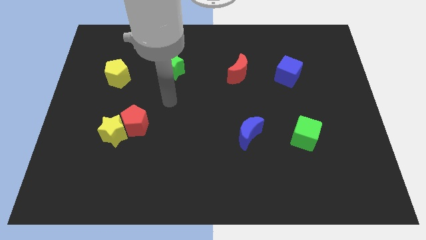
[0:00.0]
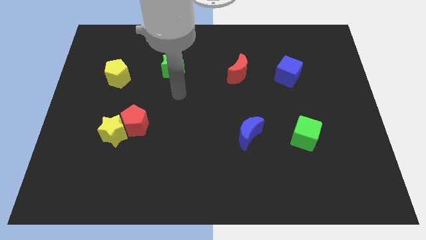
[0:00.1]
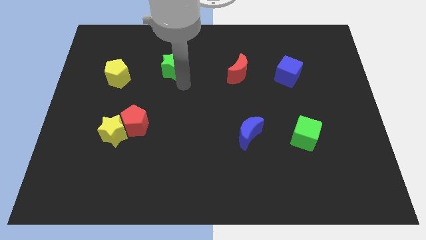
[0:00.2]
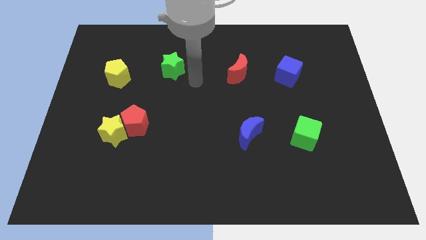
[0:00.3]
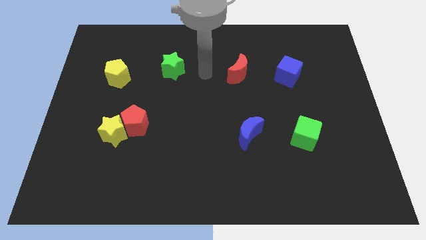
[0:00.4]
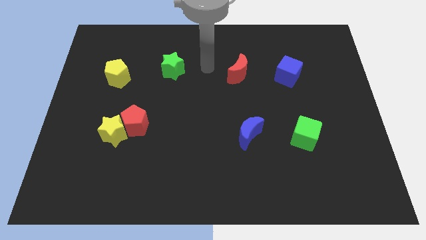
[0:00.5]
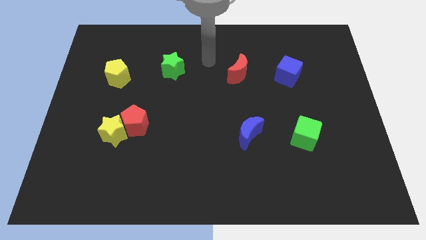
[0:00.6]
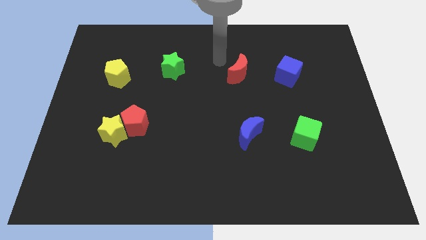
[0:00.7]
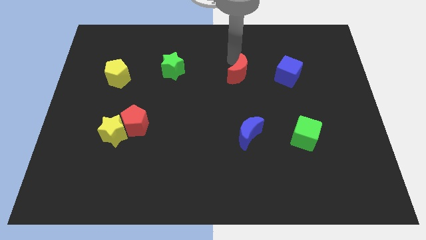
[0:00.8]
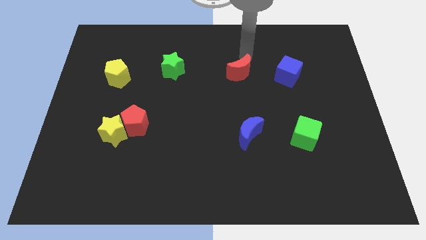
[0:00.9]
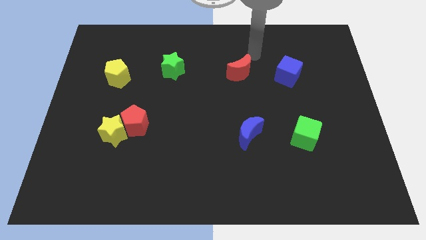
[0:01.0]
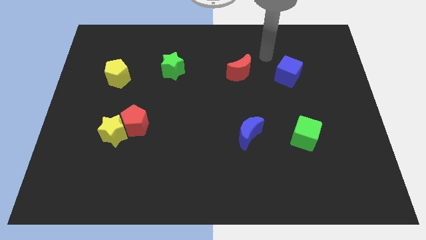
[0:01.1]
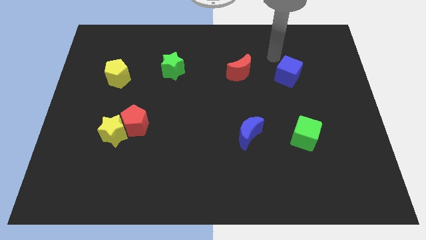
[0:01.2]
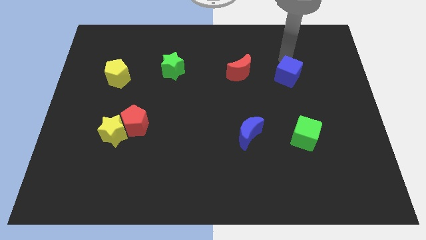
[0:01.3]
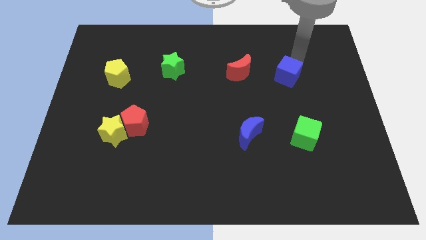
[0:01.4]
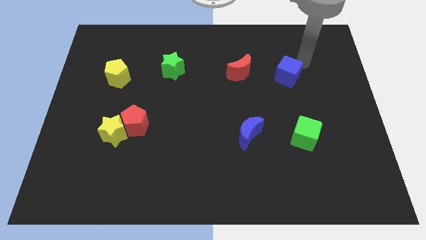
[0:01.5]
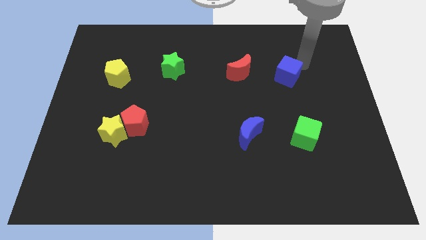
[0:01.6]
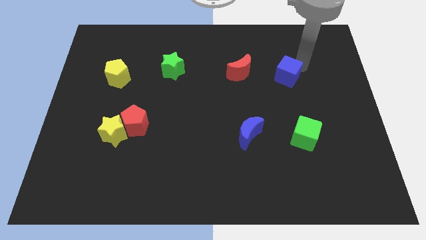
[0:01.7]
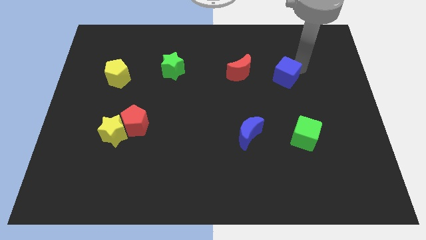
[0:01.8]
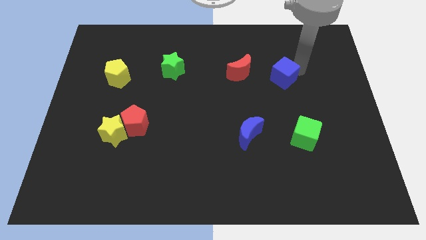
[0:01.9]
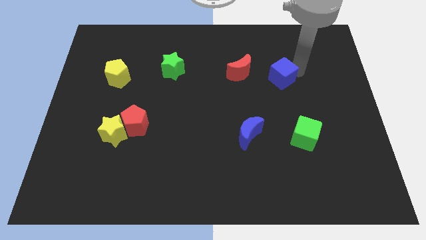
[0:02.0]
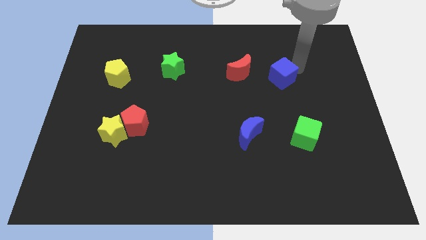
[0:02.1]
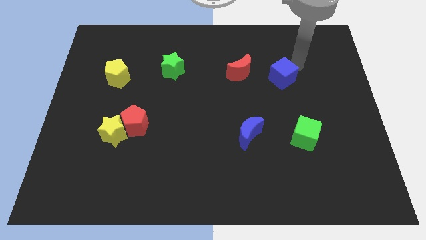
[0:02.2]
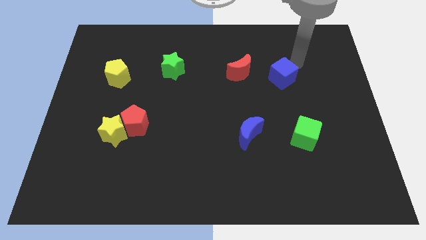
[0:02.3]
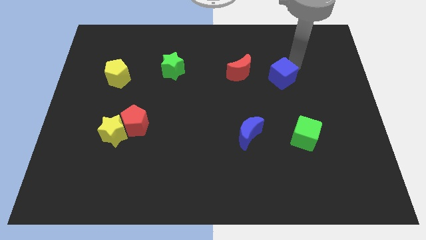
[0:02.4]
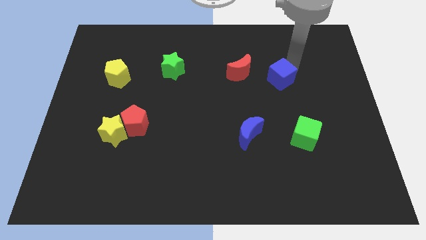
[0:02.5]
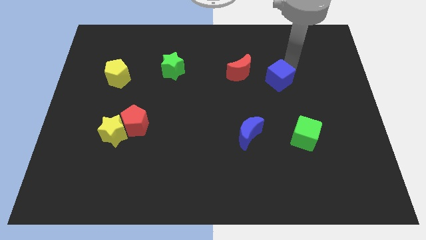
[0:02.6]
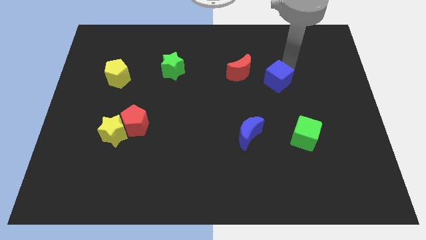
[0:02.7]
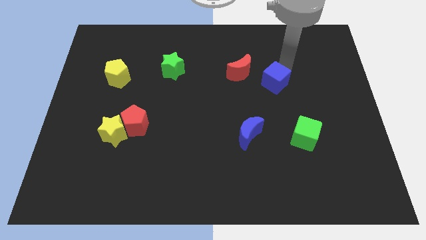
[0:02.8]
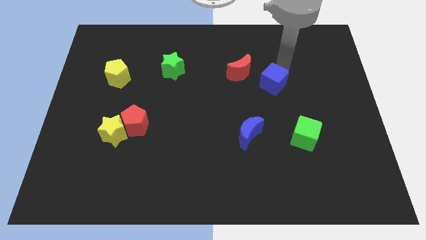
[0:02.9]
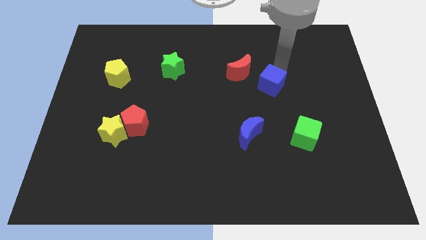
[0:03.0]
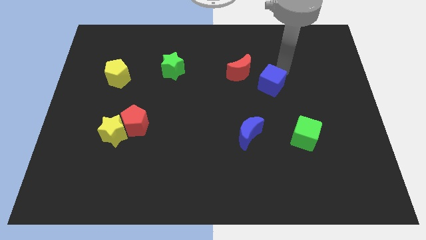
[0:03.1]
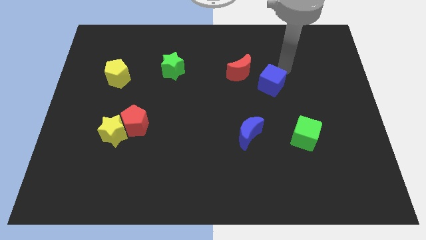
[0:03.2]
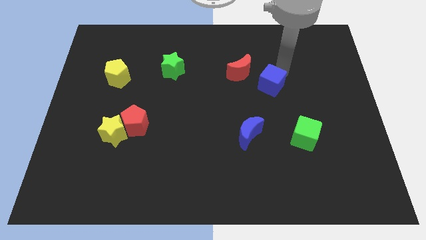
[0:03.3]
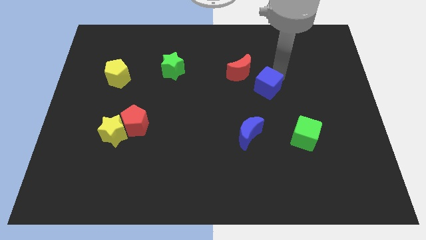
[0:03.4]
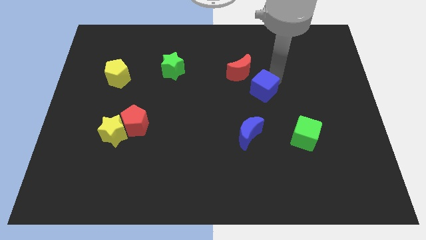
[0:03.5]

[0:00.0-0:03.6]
push the blue cube downwards and to the left diagonally a little bit

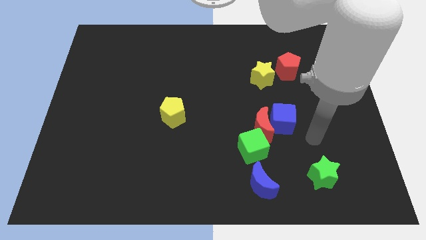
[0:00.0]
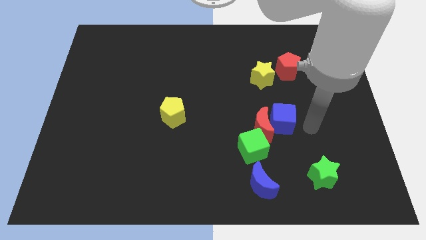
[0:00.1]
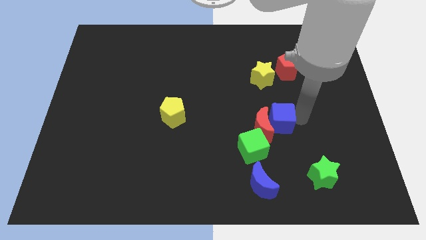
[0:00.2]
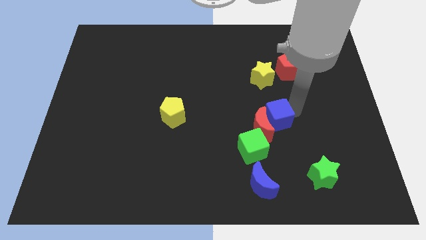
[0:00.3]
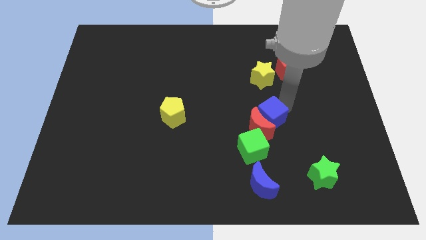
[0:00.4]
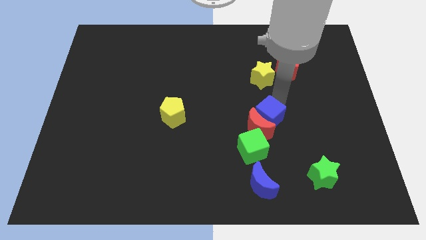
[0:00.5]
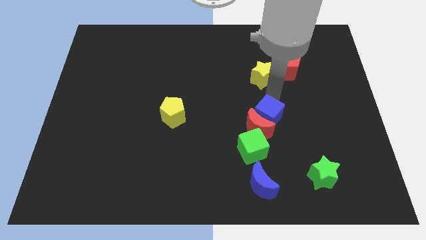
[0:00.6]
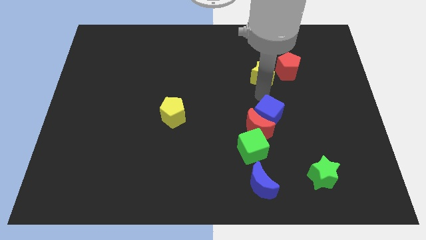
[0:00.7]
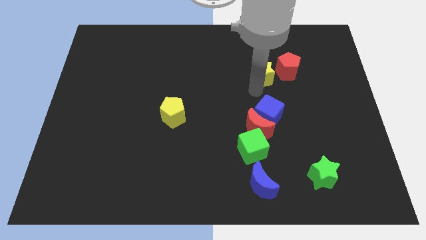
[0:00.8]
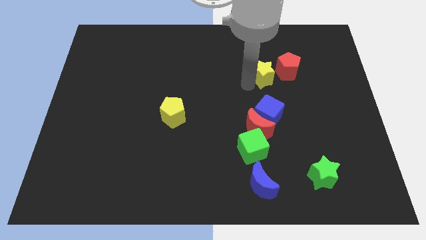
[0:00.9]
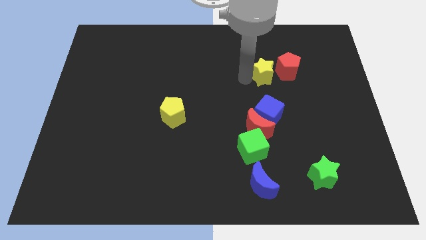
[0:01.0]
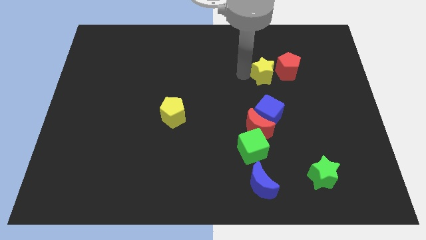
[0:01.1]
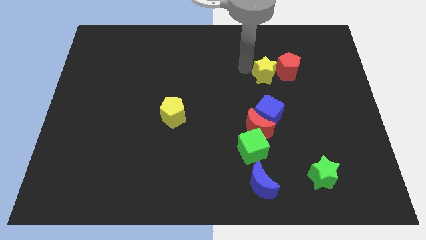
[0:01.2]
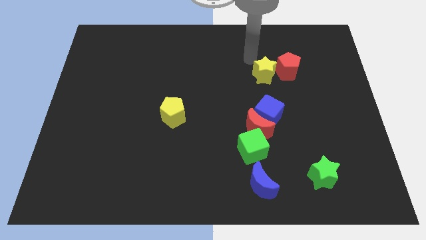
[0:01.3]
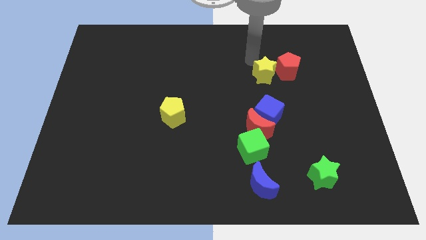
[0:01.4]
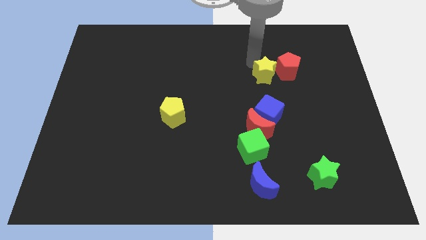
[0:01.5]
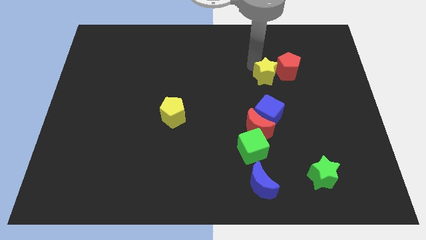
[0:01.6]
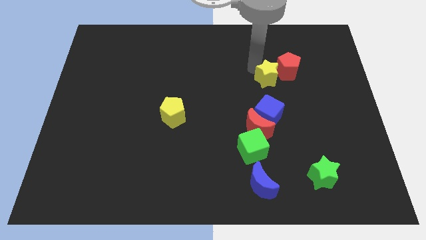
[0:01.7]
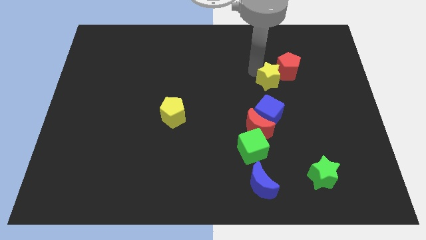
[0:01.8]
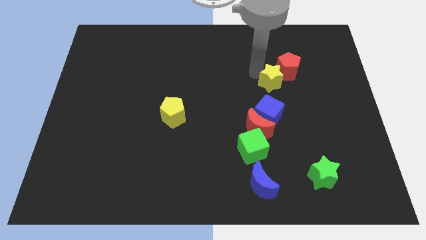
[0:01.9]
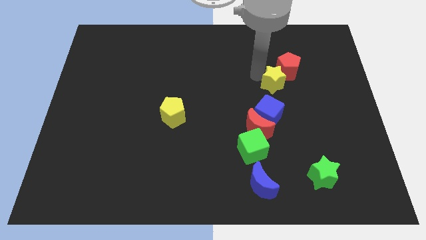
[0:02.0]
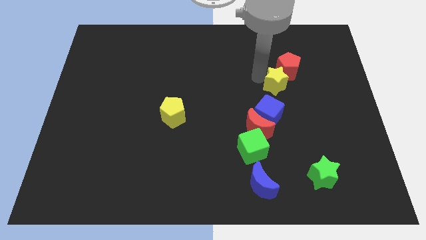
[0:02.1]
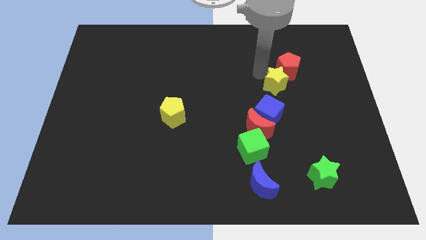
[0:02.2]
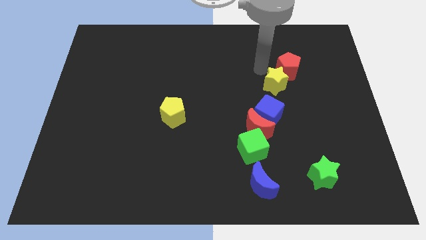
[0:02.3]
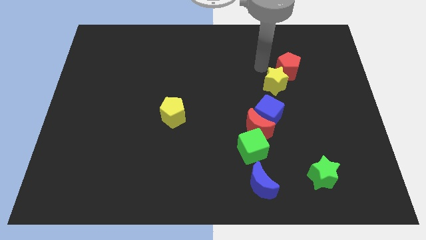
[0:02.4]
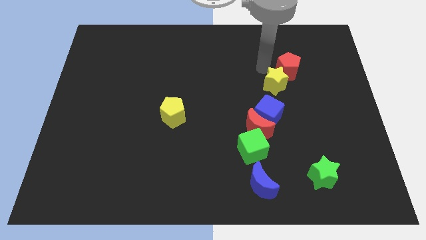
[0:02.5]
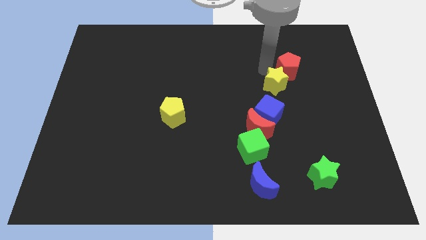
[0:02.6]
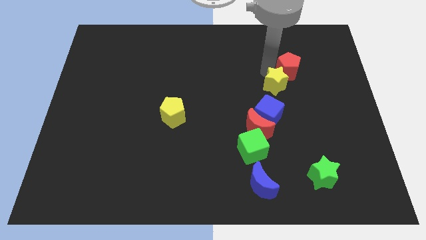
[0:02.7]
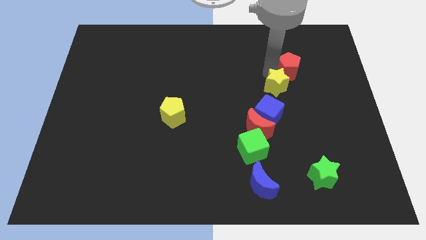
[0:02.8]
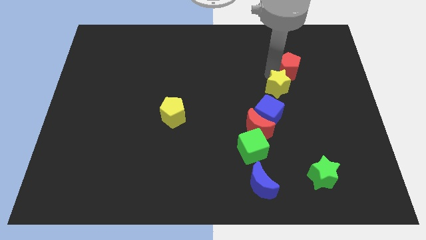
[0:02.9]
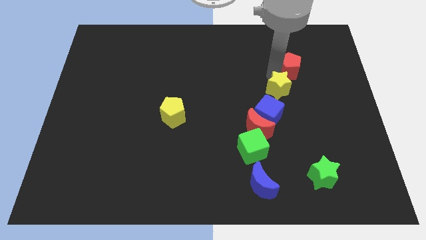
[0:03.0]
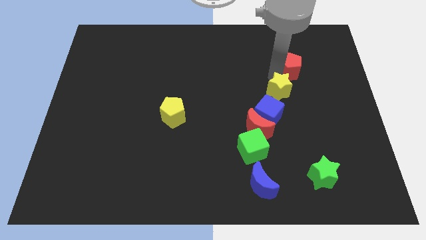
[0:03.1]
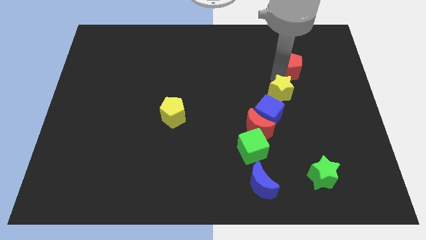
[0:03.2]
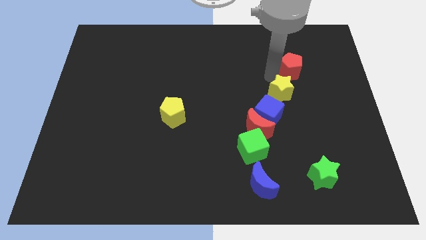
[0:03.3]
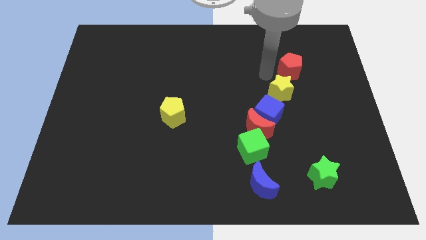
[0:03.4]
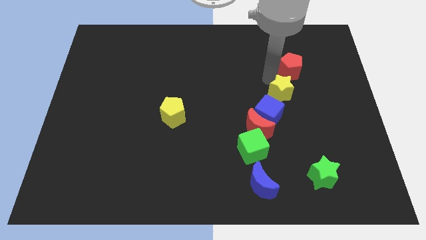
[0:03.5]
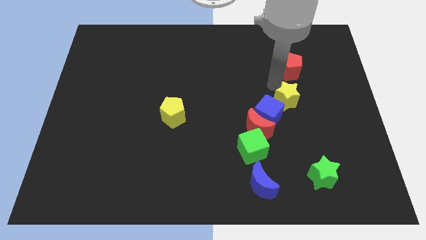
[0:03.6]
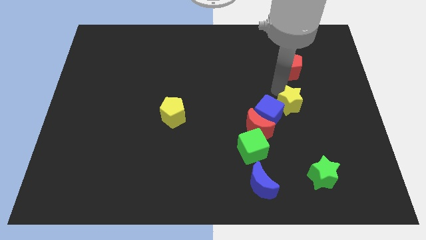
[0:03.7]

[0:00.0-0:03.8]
slide the yellow star a little downwards

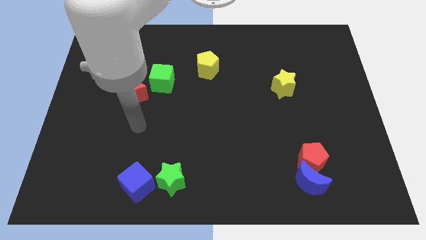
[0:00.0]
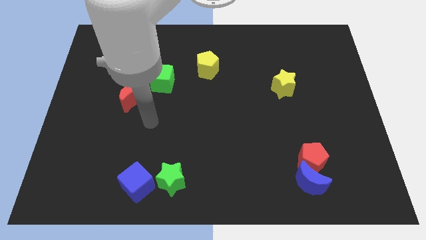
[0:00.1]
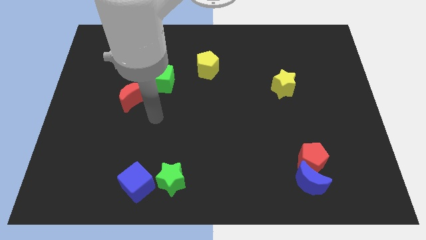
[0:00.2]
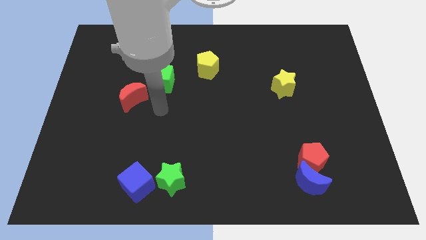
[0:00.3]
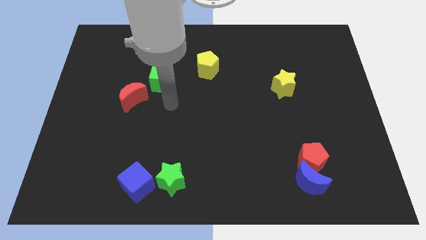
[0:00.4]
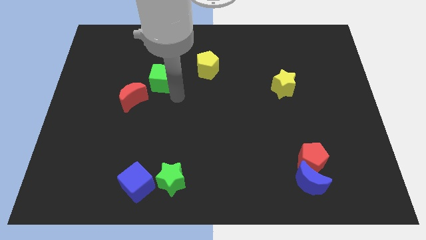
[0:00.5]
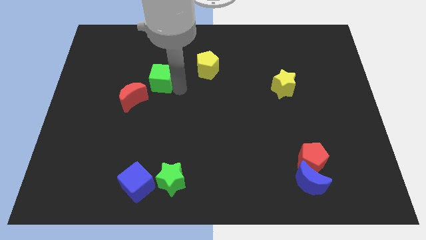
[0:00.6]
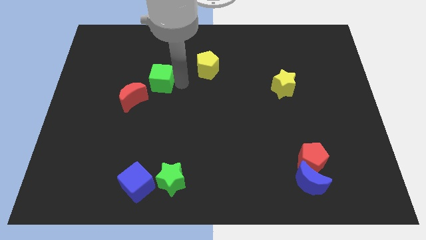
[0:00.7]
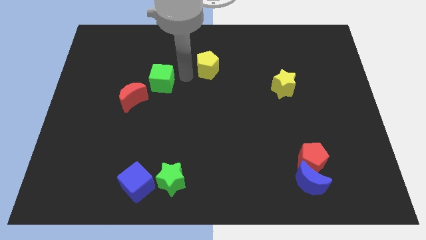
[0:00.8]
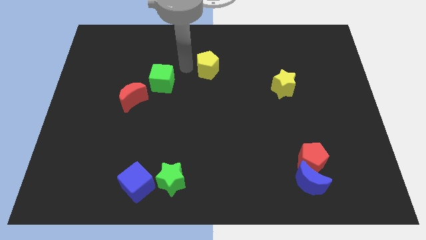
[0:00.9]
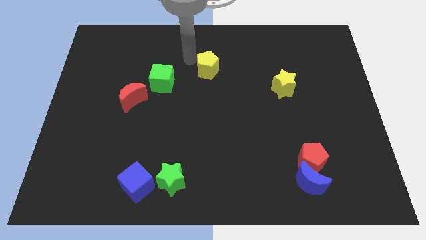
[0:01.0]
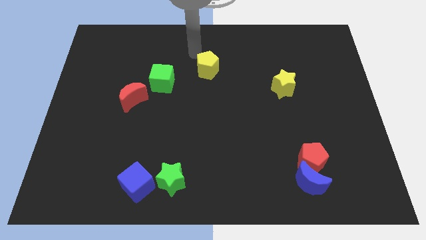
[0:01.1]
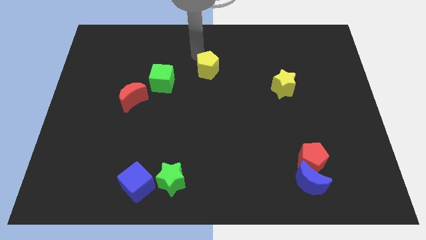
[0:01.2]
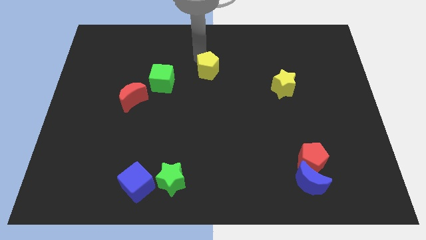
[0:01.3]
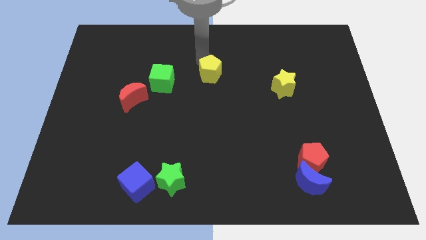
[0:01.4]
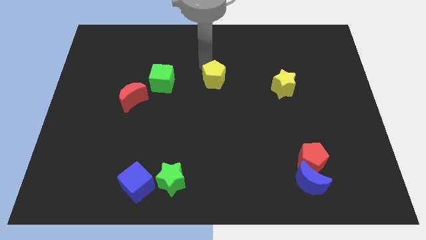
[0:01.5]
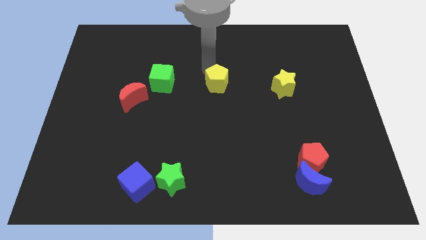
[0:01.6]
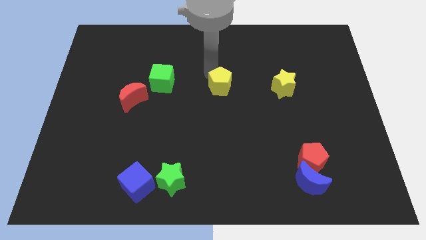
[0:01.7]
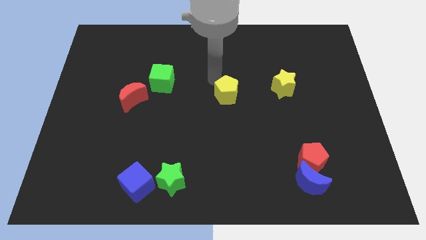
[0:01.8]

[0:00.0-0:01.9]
move the yellow pentagon downwards and right diagonally somewhat
